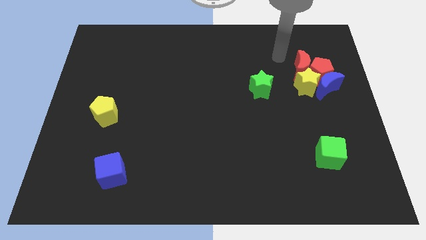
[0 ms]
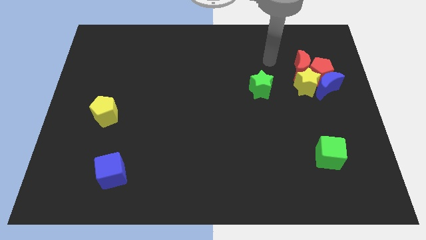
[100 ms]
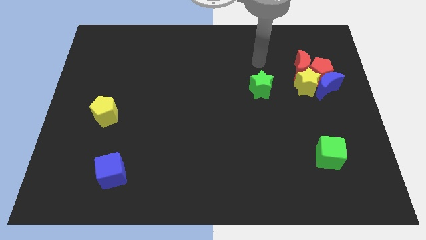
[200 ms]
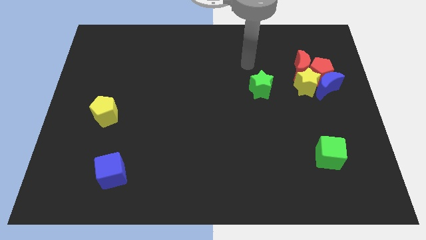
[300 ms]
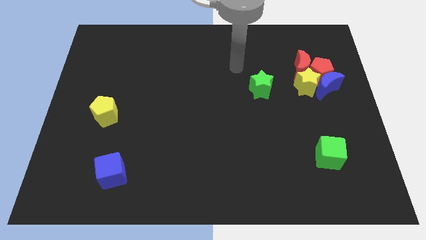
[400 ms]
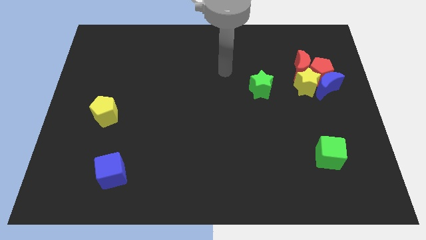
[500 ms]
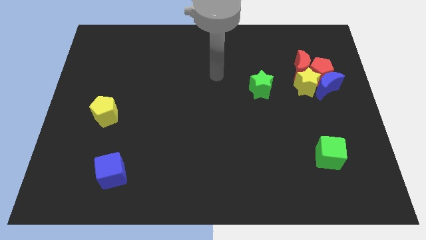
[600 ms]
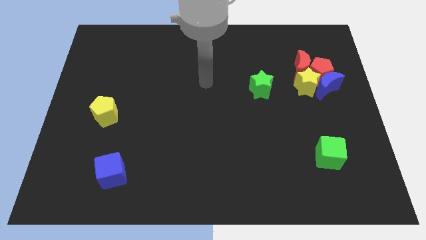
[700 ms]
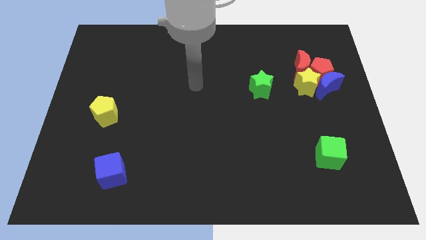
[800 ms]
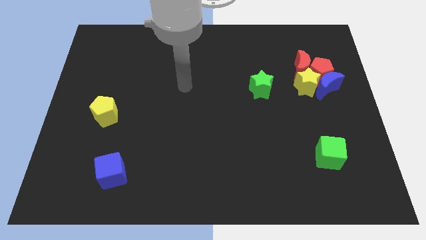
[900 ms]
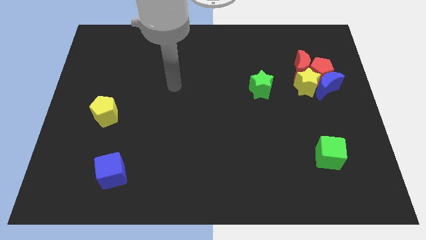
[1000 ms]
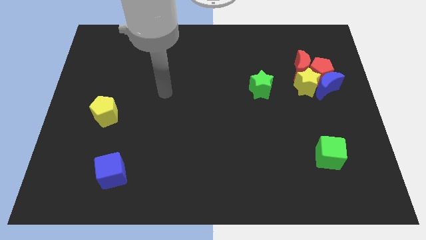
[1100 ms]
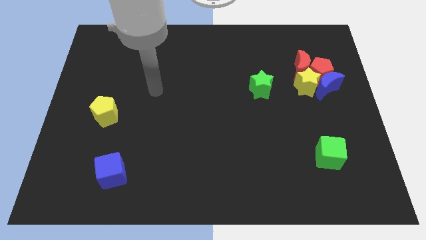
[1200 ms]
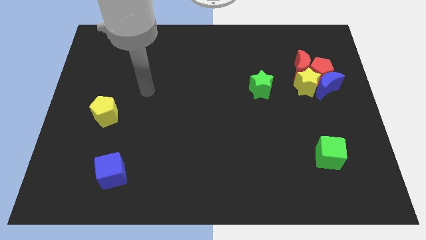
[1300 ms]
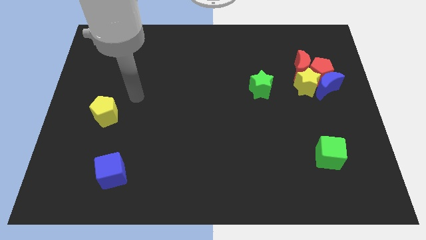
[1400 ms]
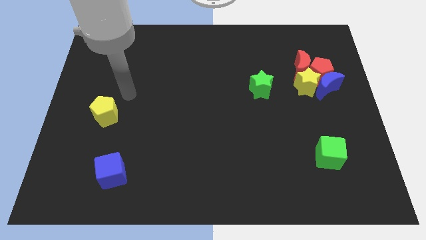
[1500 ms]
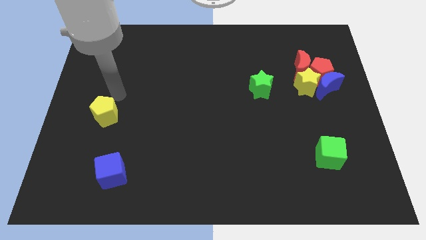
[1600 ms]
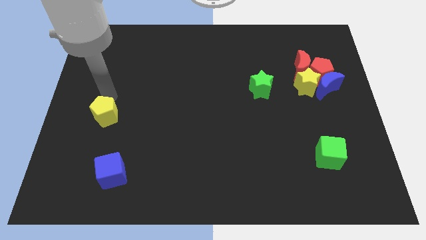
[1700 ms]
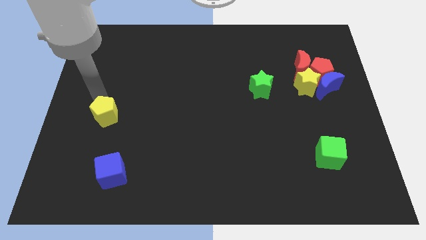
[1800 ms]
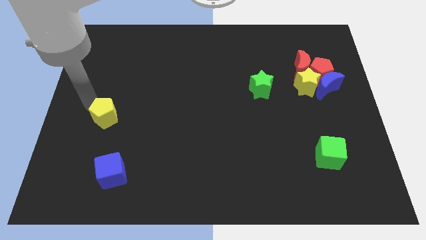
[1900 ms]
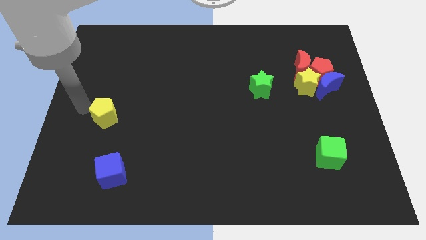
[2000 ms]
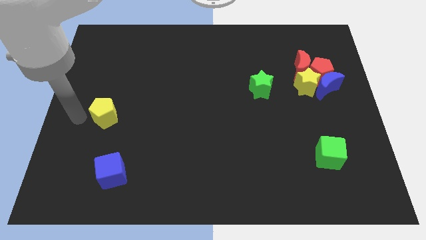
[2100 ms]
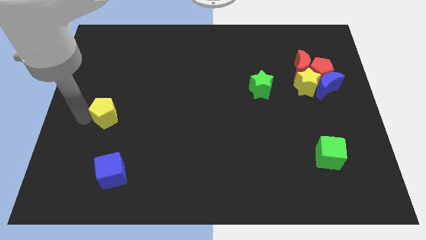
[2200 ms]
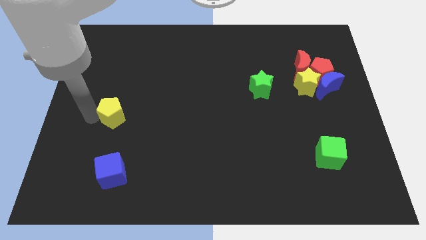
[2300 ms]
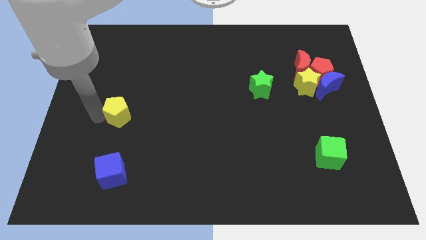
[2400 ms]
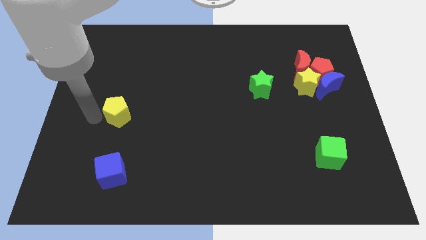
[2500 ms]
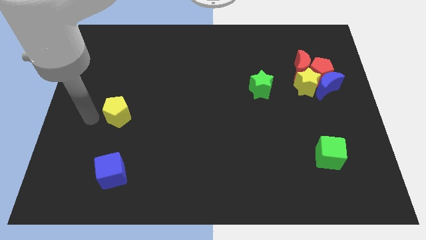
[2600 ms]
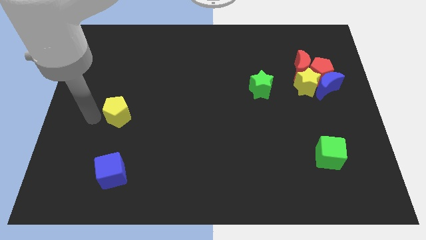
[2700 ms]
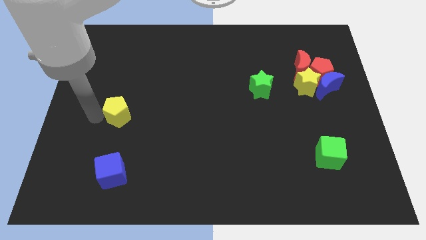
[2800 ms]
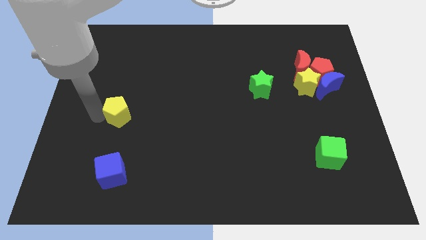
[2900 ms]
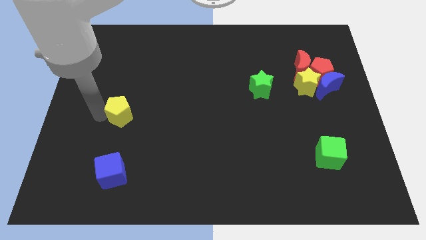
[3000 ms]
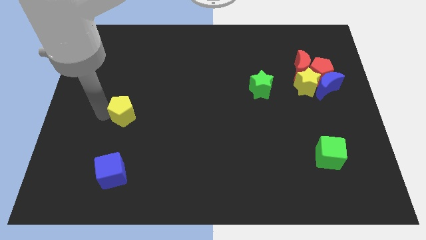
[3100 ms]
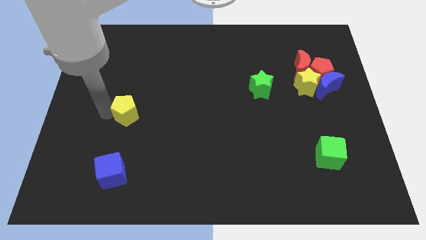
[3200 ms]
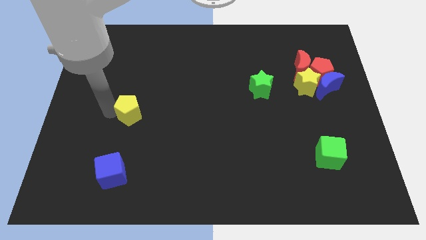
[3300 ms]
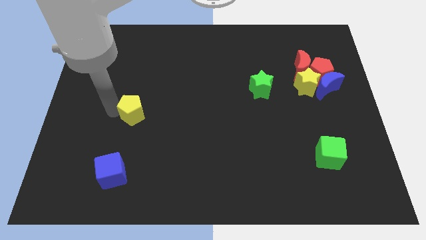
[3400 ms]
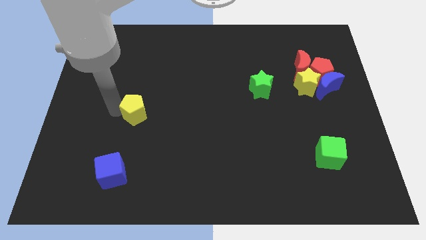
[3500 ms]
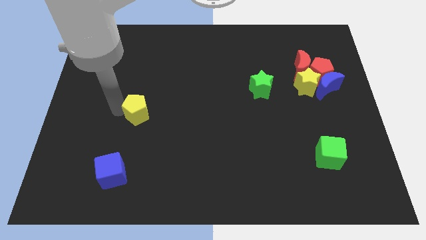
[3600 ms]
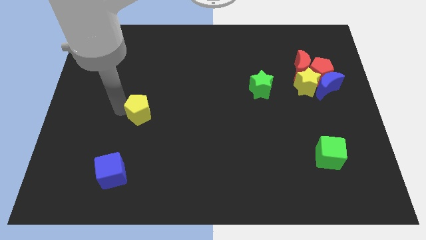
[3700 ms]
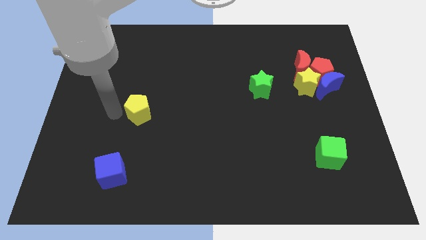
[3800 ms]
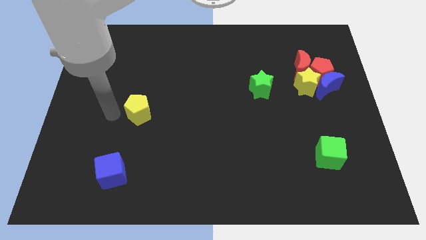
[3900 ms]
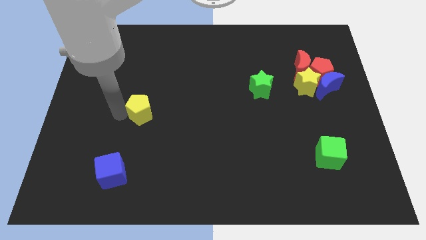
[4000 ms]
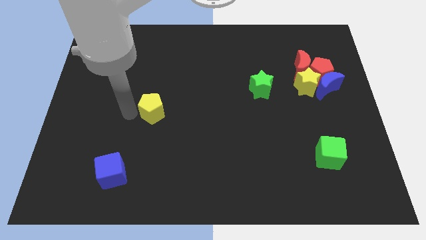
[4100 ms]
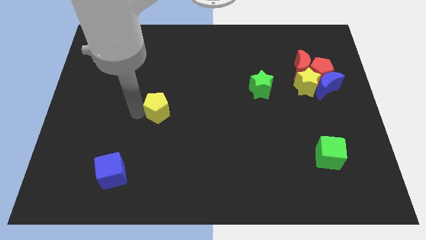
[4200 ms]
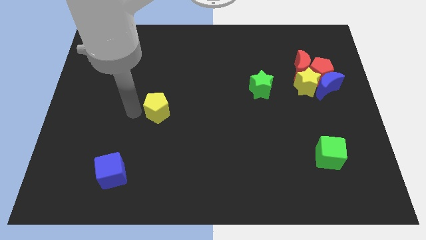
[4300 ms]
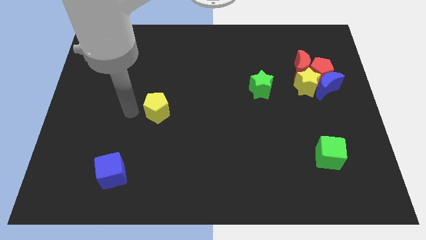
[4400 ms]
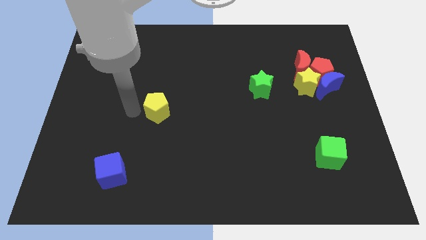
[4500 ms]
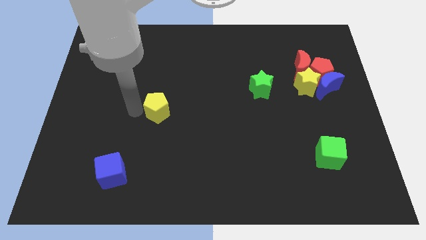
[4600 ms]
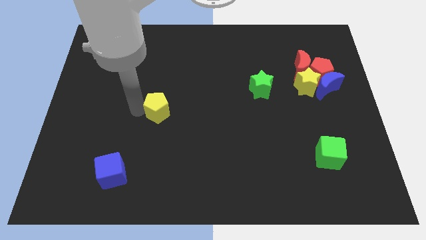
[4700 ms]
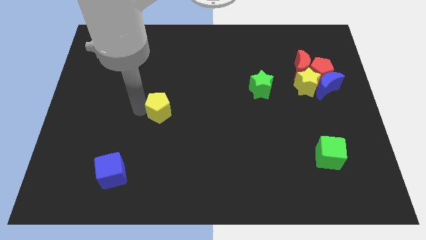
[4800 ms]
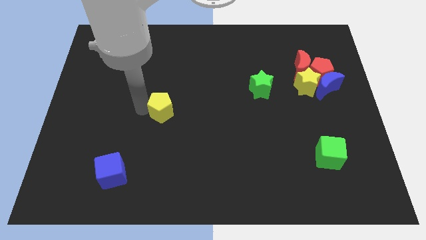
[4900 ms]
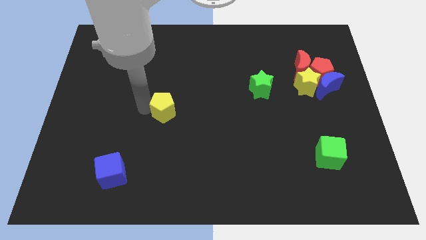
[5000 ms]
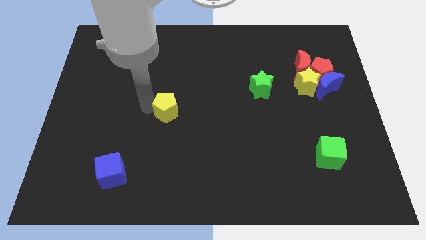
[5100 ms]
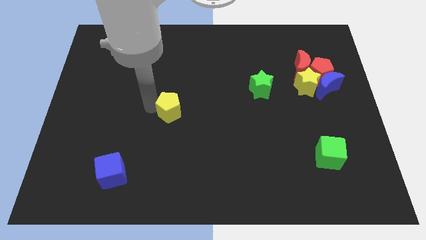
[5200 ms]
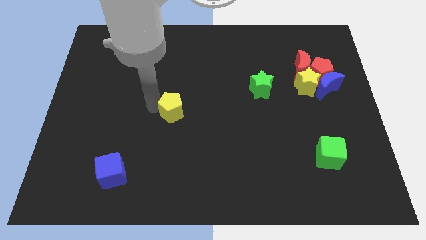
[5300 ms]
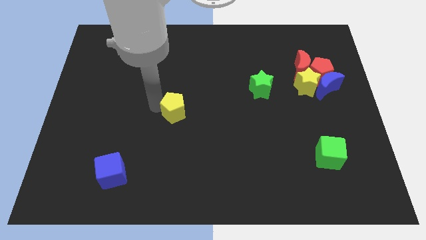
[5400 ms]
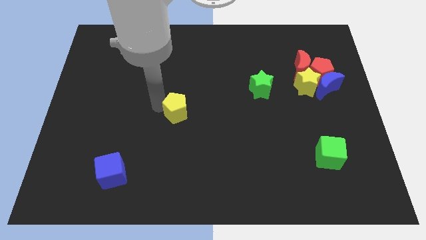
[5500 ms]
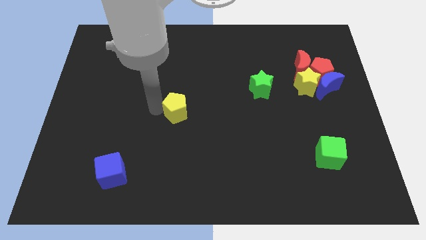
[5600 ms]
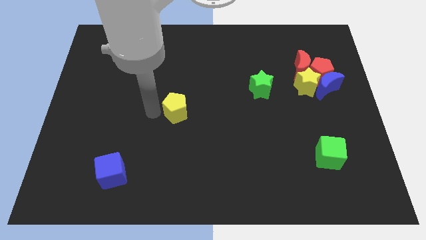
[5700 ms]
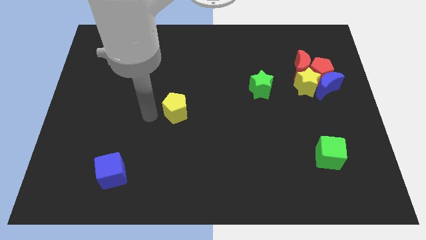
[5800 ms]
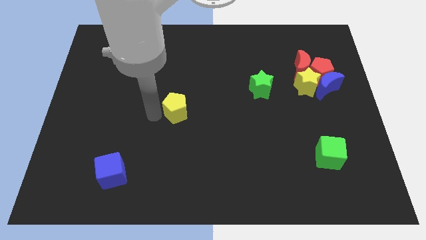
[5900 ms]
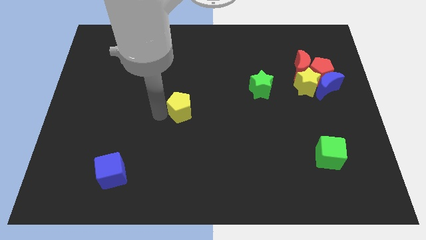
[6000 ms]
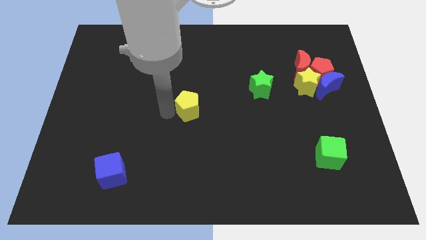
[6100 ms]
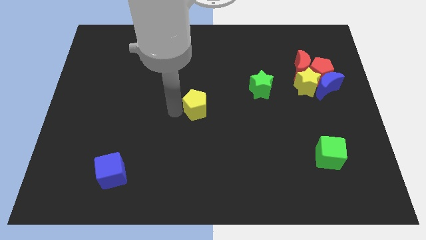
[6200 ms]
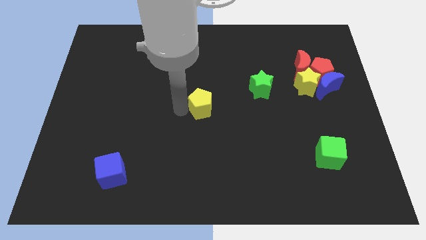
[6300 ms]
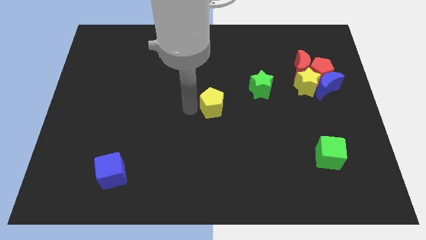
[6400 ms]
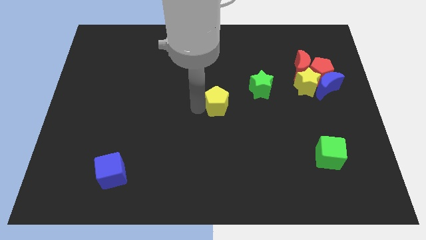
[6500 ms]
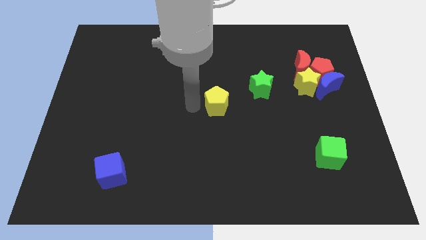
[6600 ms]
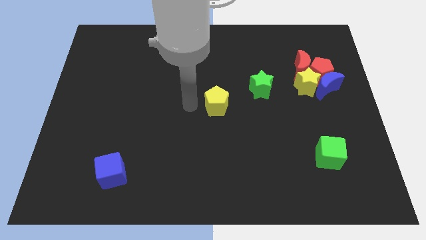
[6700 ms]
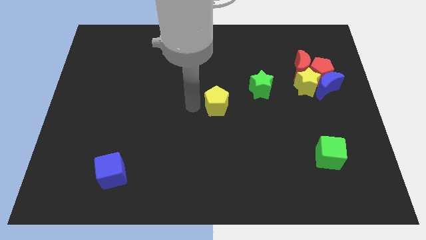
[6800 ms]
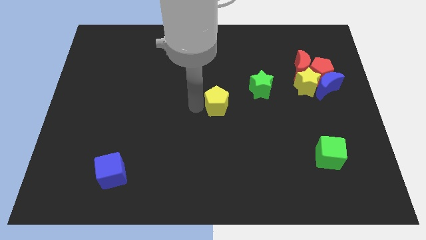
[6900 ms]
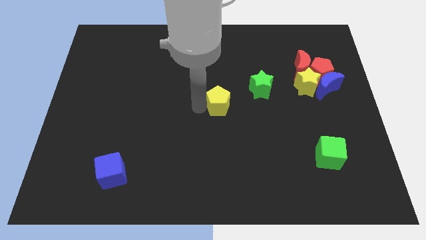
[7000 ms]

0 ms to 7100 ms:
push the yellow pentagon to the bottom left side of the green star
